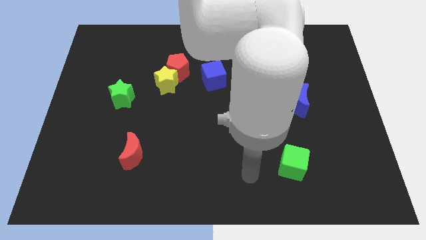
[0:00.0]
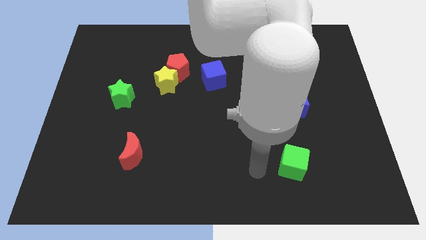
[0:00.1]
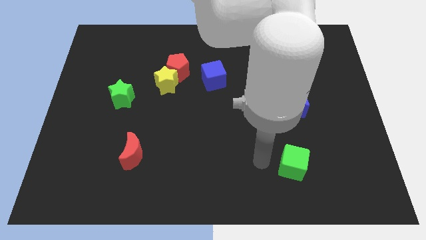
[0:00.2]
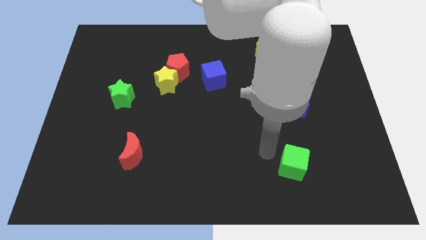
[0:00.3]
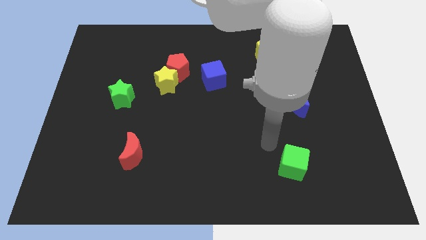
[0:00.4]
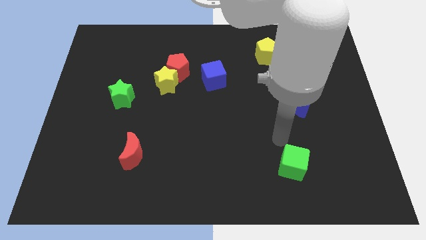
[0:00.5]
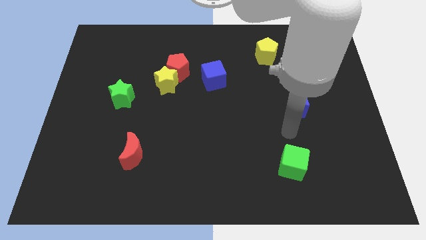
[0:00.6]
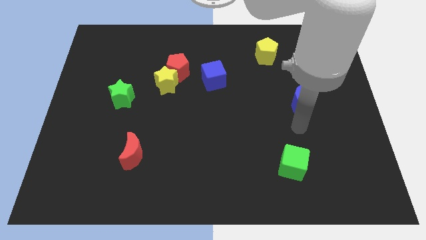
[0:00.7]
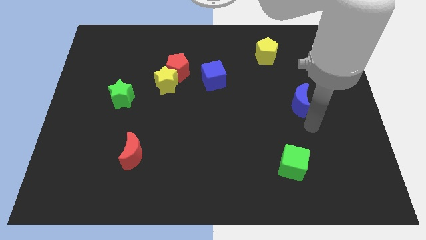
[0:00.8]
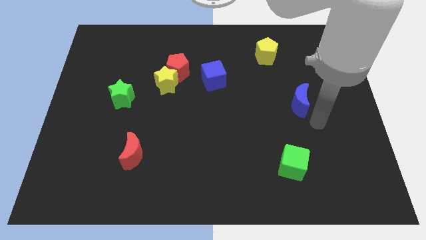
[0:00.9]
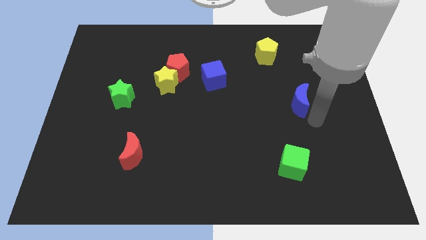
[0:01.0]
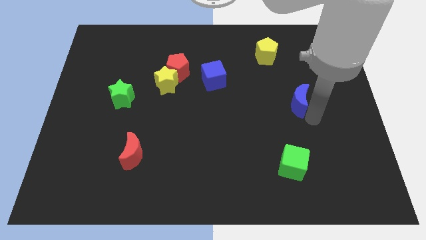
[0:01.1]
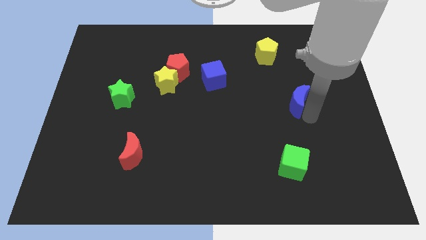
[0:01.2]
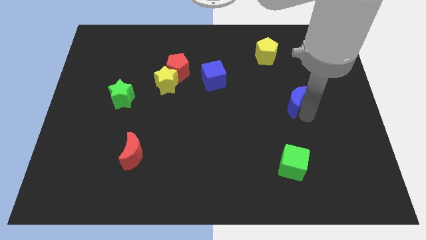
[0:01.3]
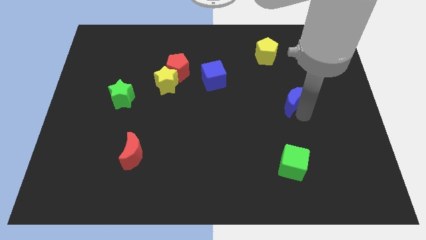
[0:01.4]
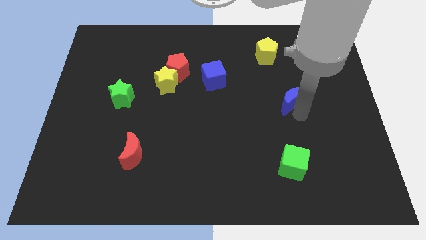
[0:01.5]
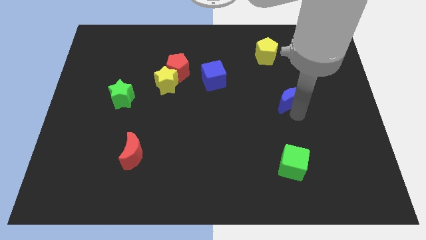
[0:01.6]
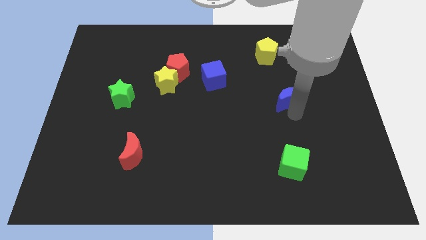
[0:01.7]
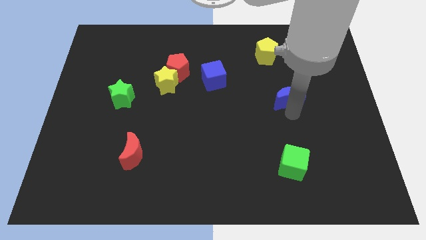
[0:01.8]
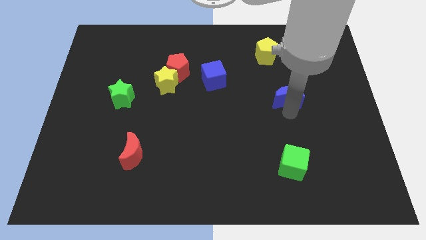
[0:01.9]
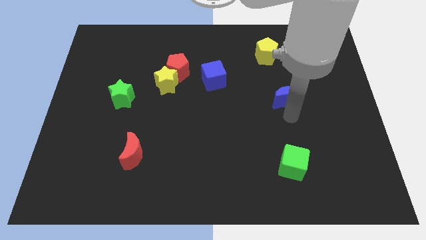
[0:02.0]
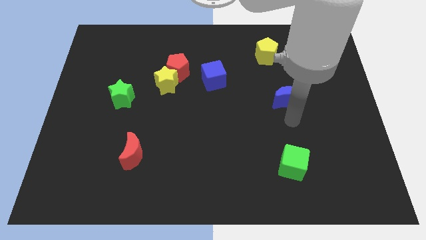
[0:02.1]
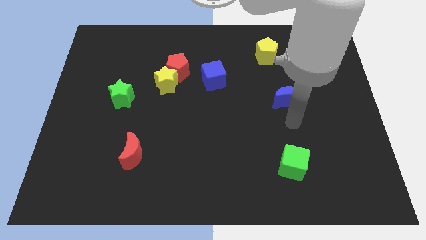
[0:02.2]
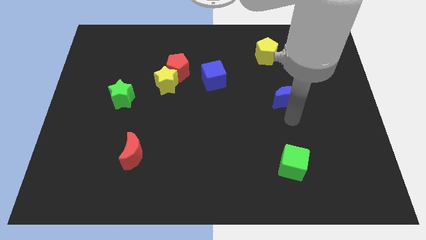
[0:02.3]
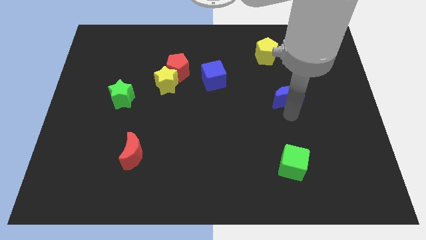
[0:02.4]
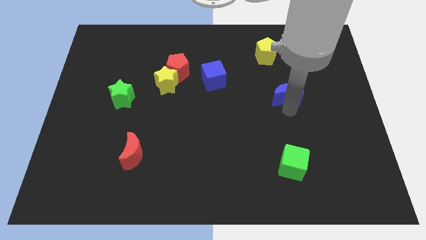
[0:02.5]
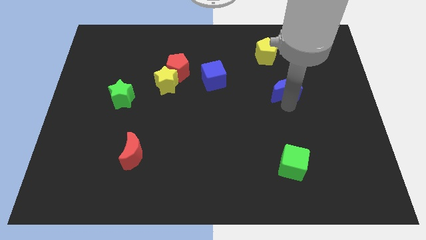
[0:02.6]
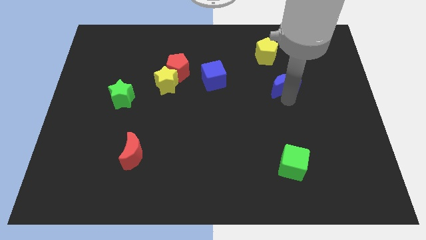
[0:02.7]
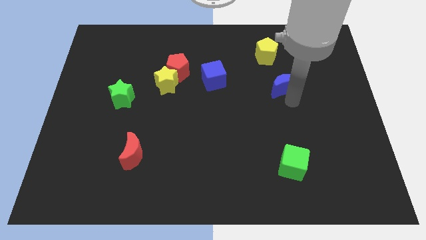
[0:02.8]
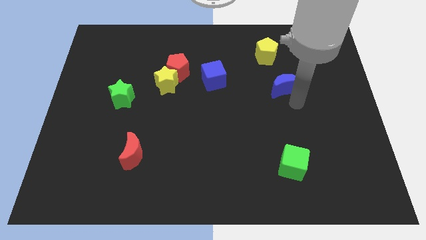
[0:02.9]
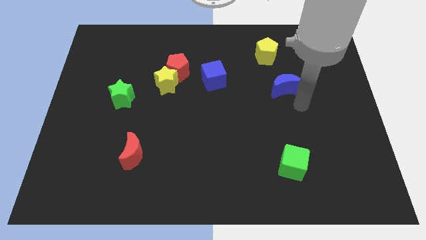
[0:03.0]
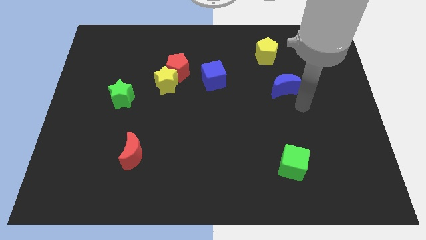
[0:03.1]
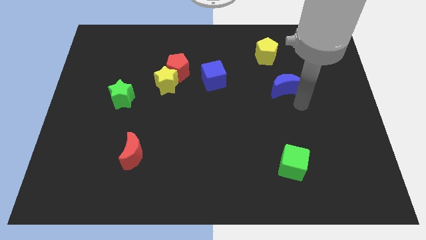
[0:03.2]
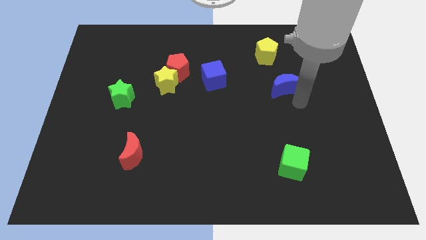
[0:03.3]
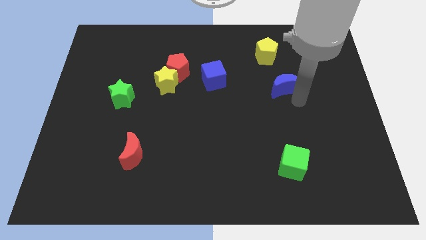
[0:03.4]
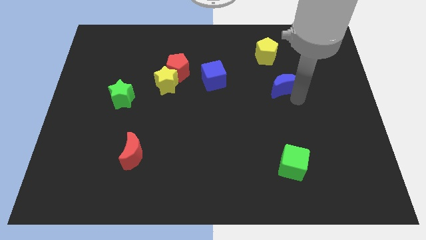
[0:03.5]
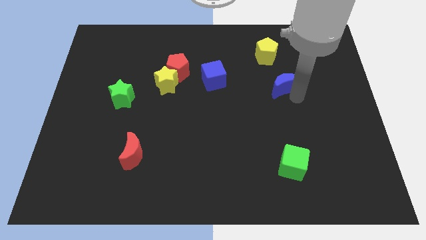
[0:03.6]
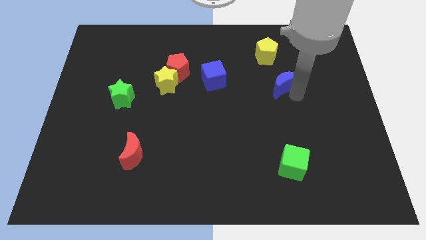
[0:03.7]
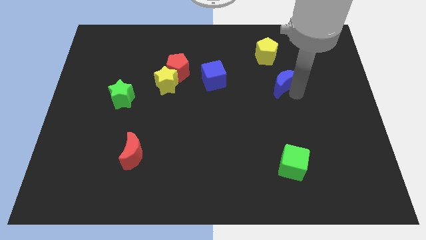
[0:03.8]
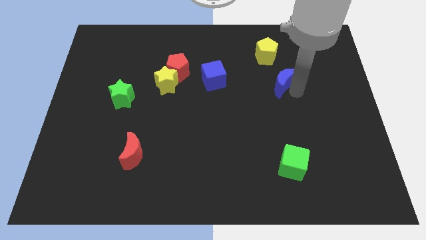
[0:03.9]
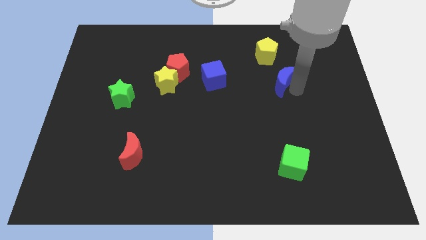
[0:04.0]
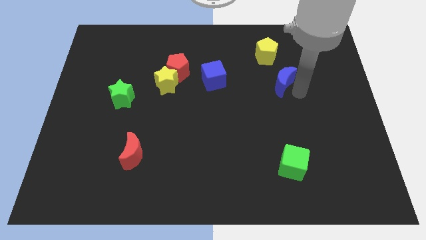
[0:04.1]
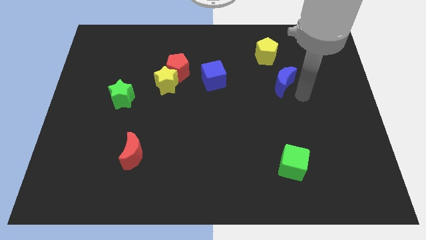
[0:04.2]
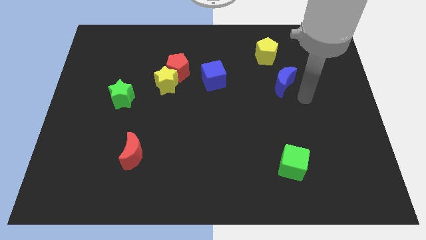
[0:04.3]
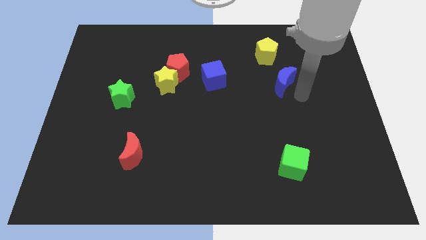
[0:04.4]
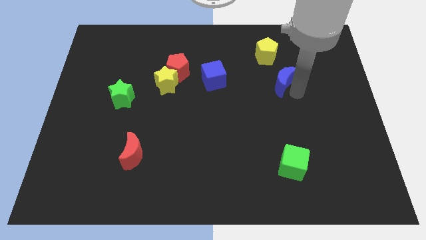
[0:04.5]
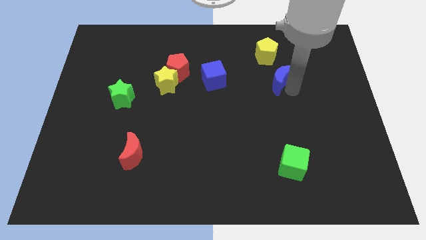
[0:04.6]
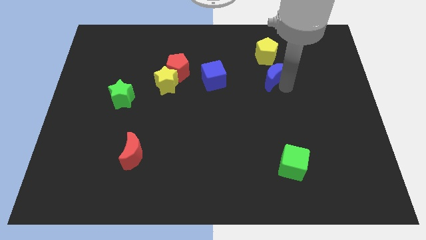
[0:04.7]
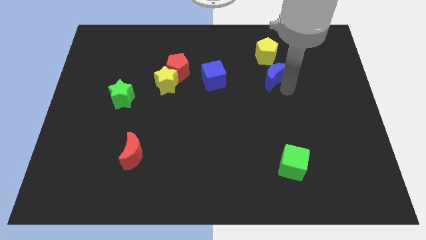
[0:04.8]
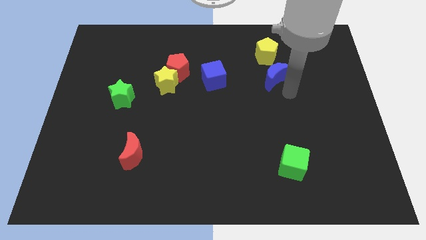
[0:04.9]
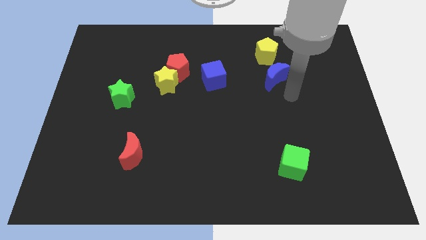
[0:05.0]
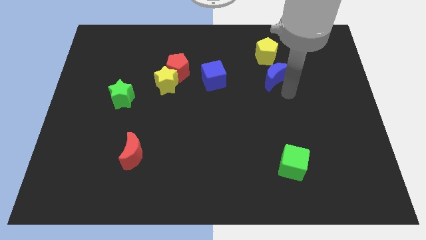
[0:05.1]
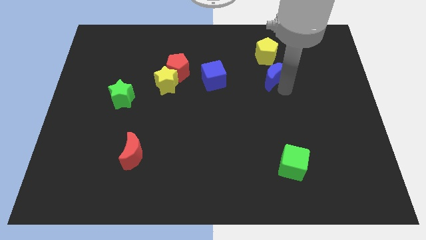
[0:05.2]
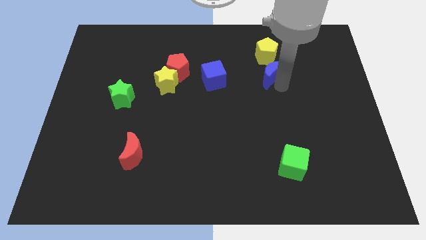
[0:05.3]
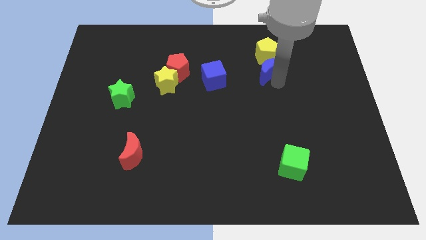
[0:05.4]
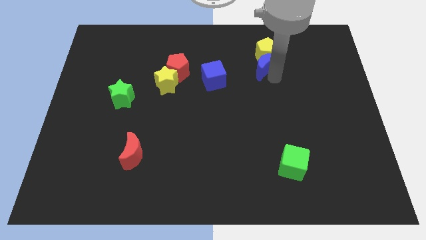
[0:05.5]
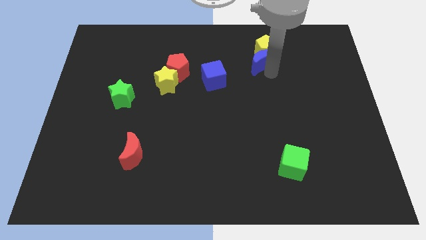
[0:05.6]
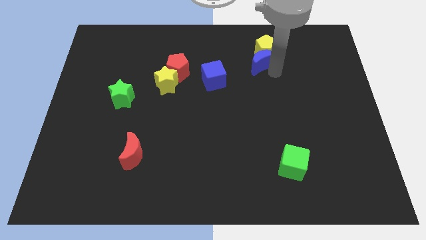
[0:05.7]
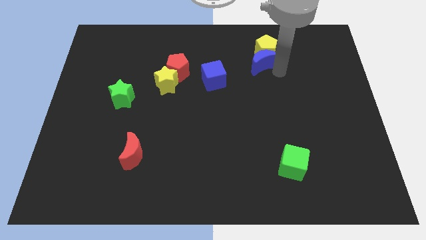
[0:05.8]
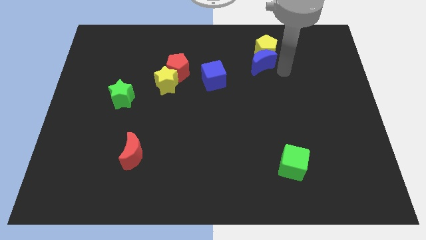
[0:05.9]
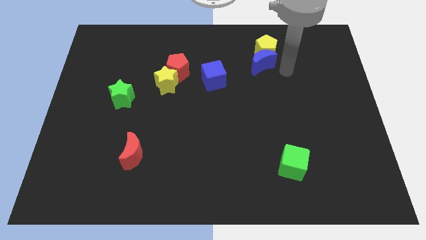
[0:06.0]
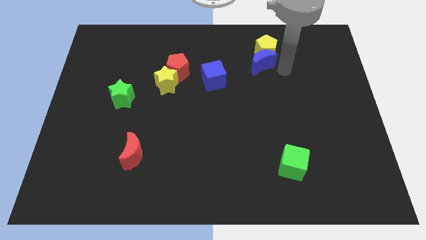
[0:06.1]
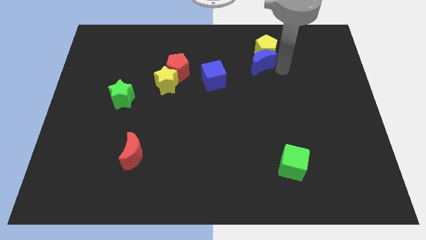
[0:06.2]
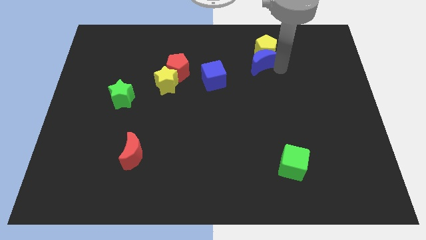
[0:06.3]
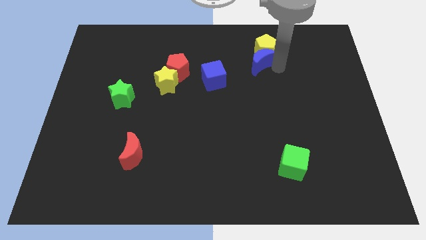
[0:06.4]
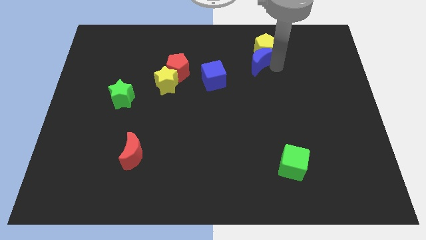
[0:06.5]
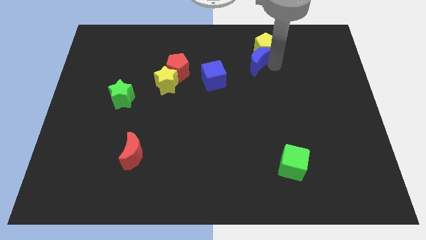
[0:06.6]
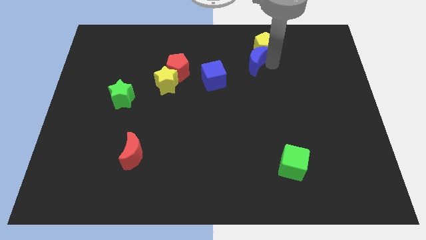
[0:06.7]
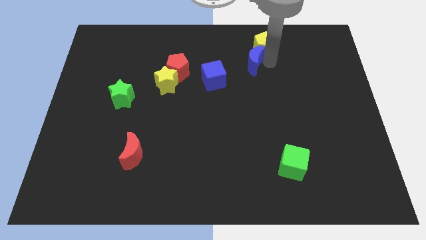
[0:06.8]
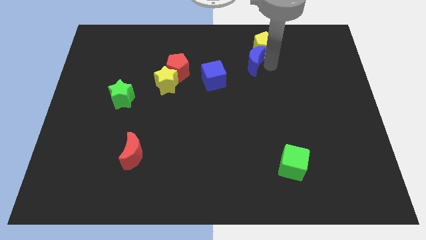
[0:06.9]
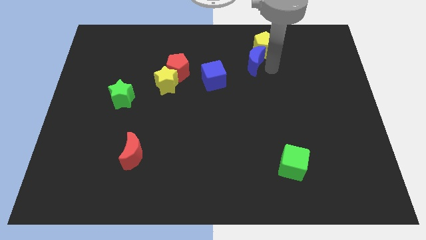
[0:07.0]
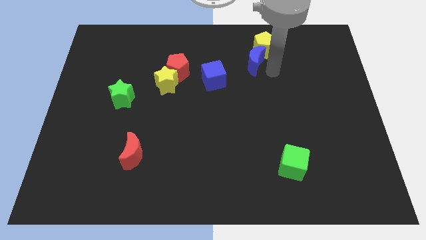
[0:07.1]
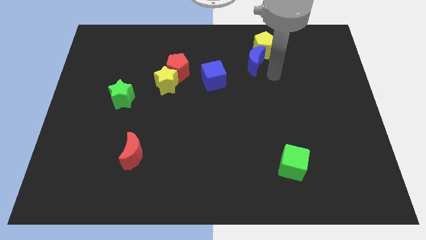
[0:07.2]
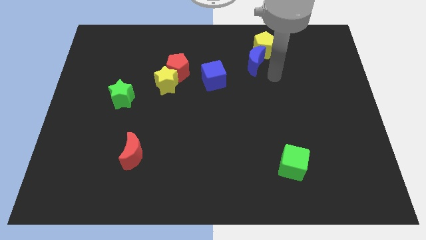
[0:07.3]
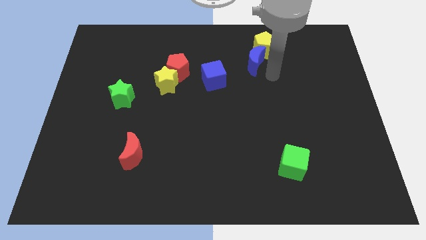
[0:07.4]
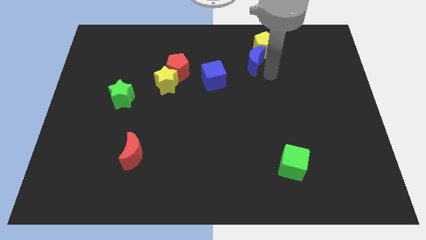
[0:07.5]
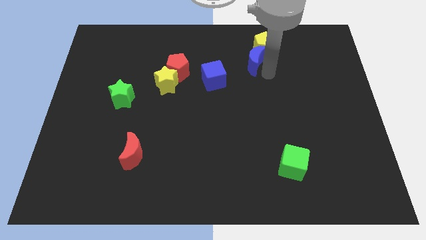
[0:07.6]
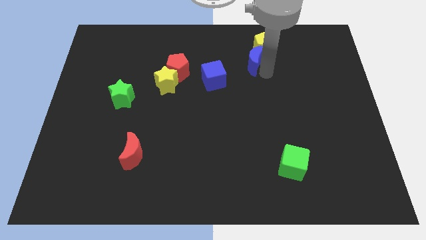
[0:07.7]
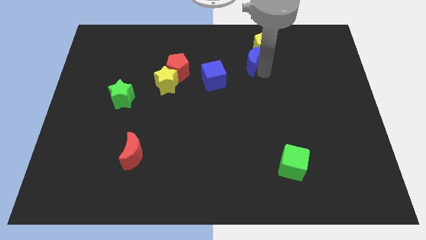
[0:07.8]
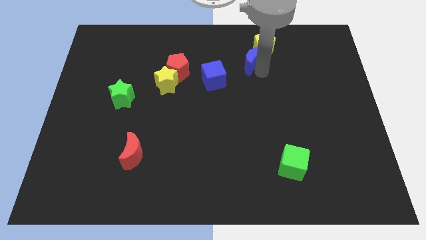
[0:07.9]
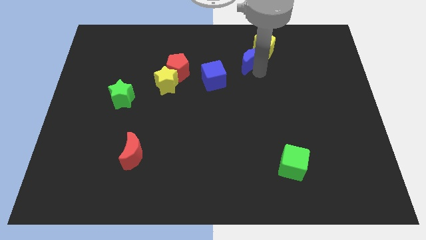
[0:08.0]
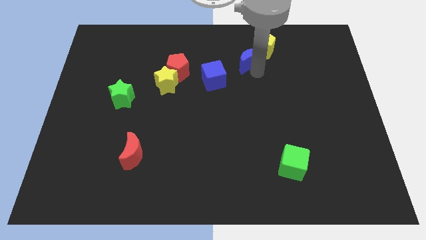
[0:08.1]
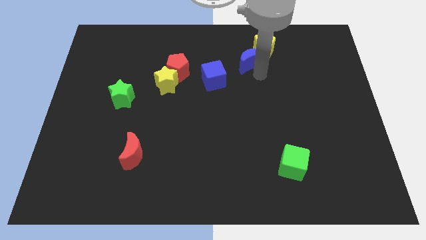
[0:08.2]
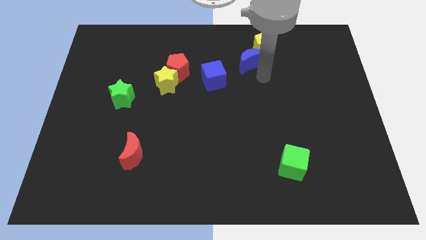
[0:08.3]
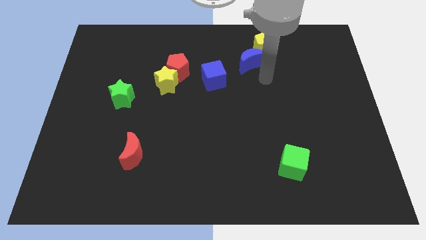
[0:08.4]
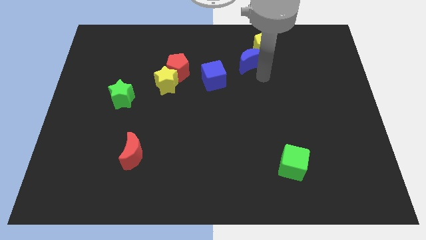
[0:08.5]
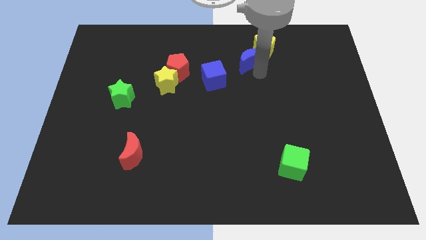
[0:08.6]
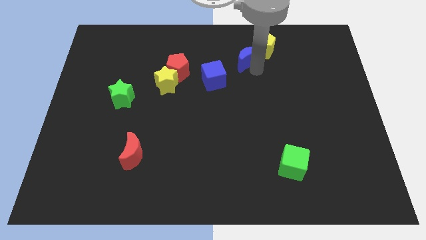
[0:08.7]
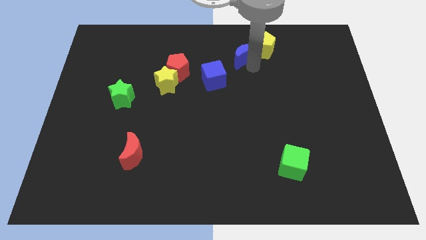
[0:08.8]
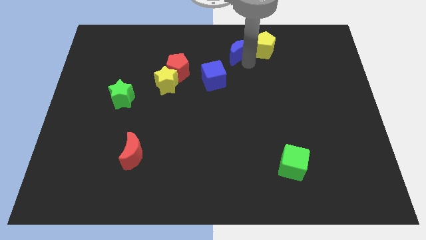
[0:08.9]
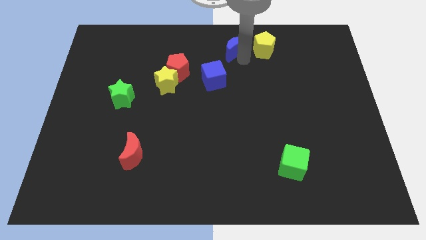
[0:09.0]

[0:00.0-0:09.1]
move the blue moon to the towards your base
